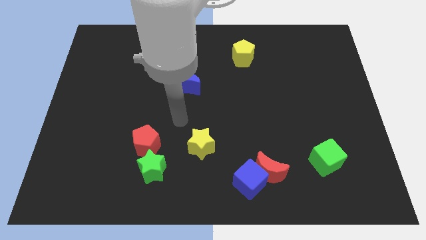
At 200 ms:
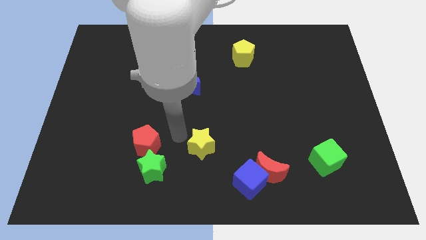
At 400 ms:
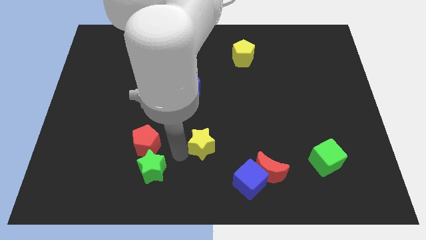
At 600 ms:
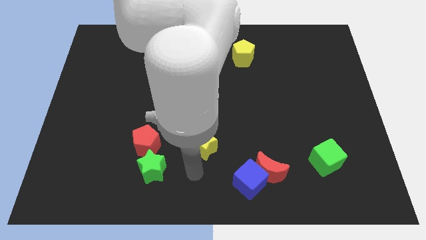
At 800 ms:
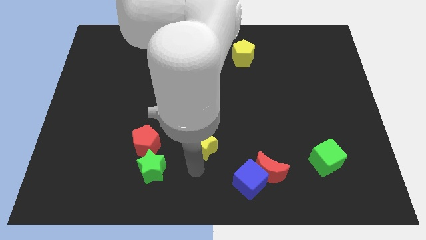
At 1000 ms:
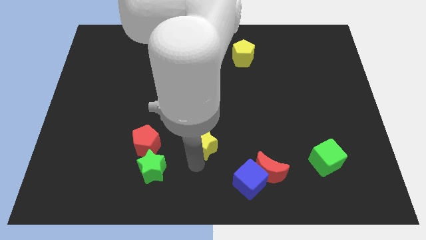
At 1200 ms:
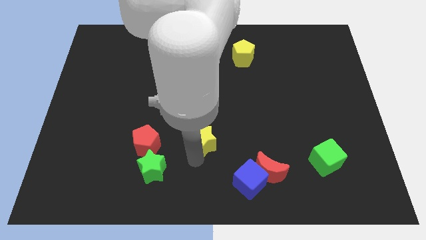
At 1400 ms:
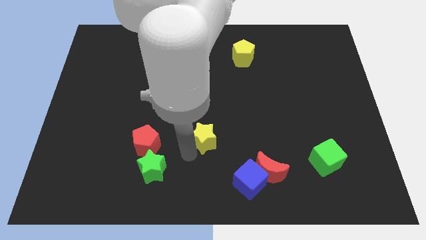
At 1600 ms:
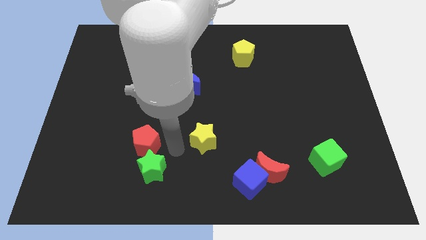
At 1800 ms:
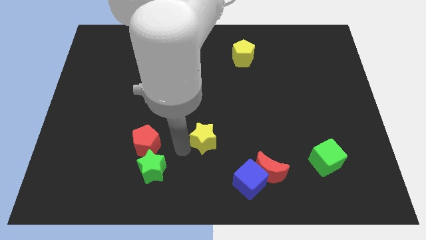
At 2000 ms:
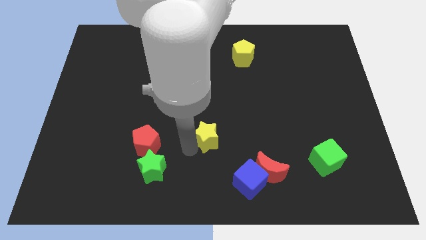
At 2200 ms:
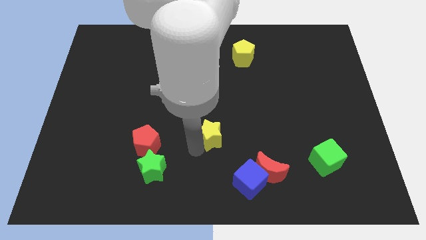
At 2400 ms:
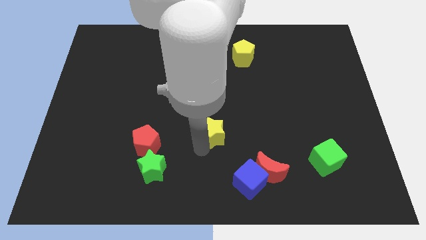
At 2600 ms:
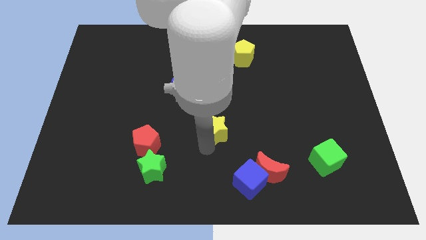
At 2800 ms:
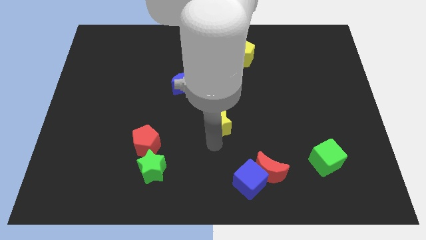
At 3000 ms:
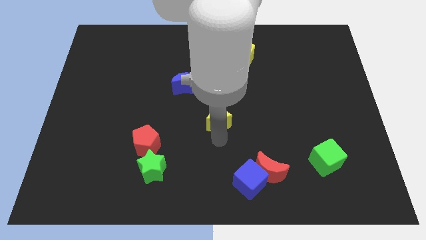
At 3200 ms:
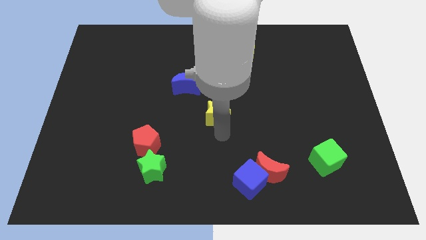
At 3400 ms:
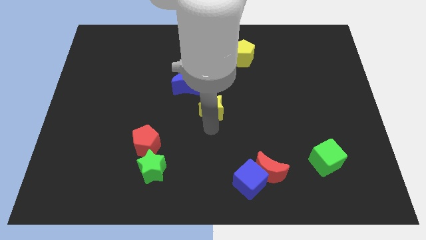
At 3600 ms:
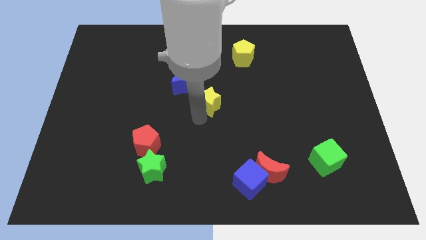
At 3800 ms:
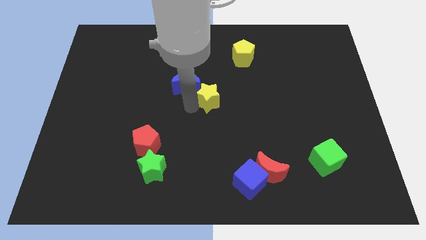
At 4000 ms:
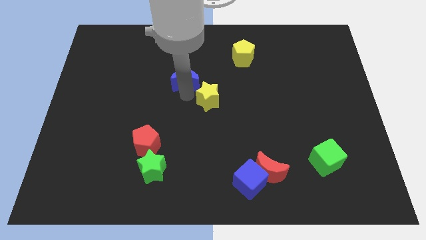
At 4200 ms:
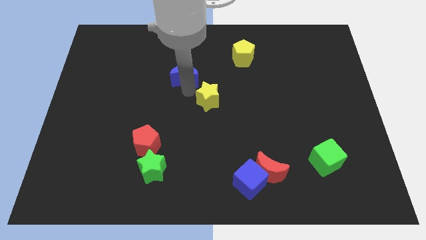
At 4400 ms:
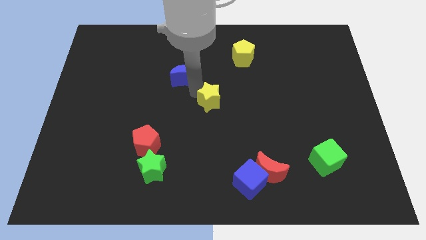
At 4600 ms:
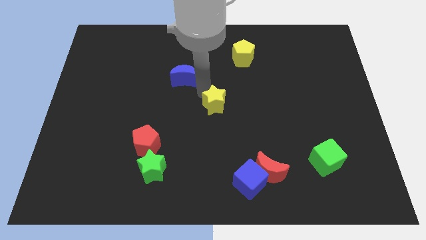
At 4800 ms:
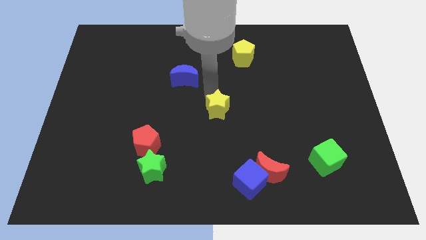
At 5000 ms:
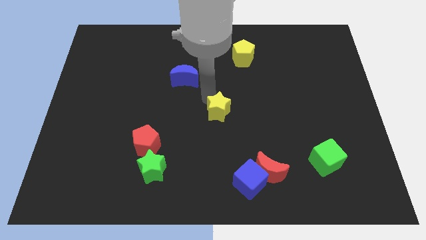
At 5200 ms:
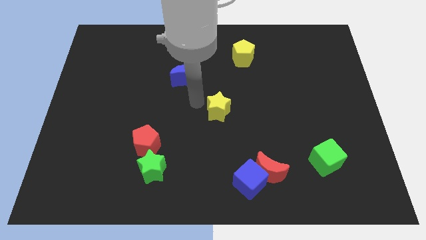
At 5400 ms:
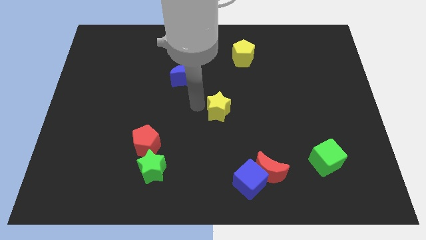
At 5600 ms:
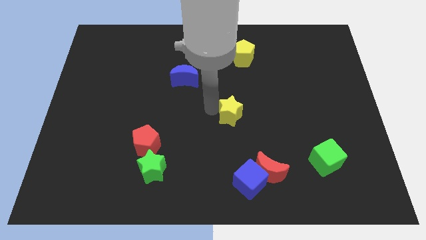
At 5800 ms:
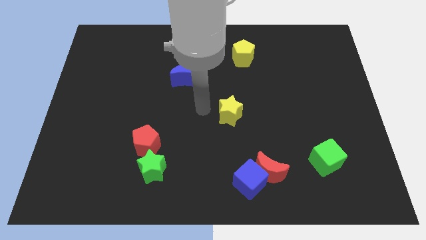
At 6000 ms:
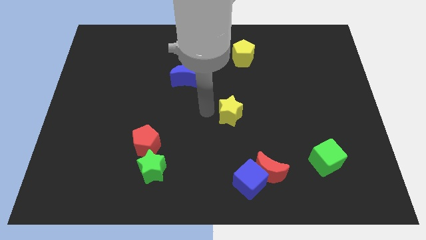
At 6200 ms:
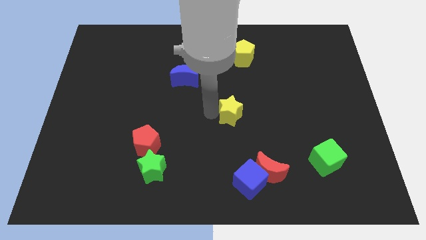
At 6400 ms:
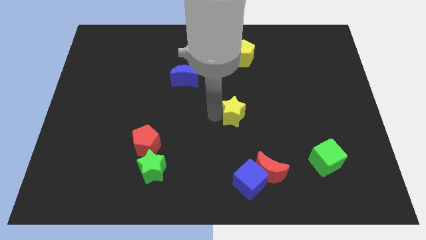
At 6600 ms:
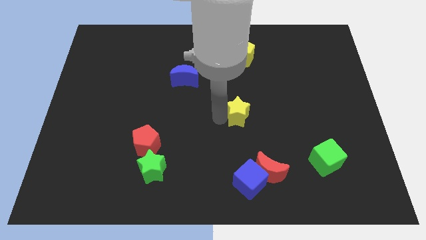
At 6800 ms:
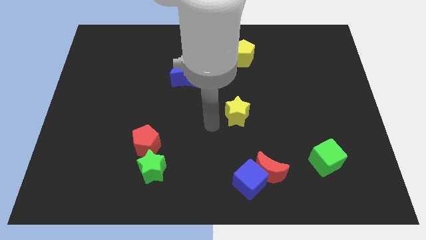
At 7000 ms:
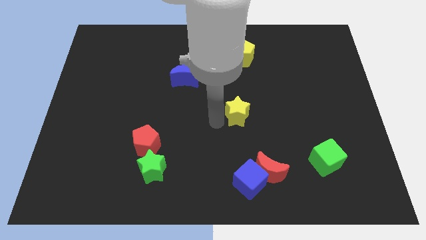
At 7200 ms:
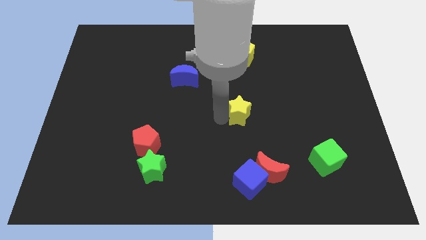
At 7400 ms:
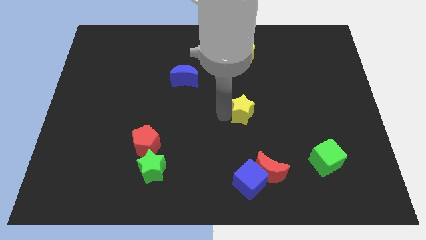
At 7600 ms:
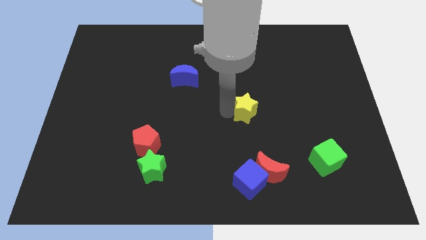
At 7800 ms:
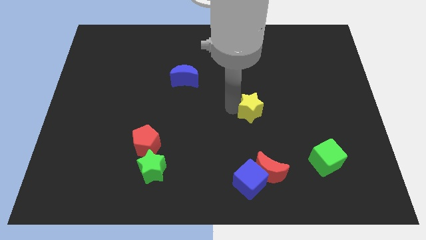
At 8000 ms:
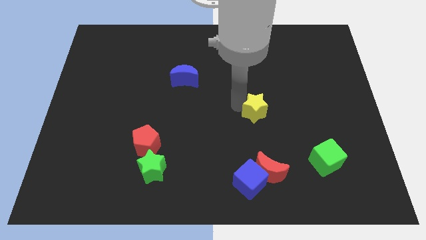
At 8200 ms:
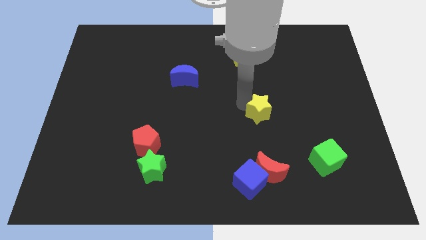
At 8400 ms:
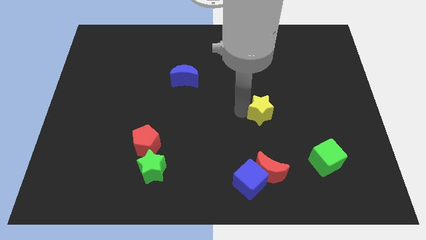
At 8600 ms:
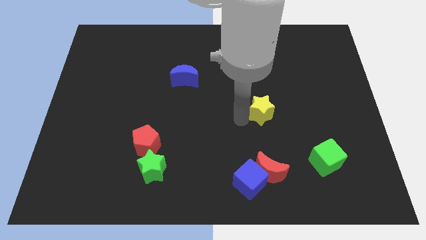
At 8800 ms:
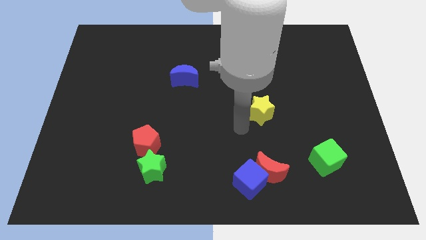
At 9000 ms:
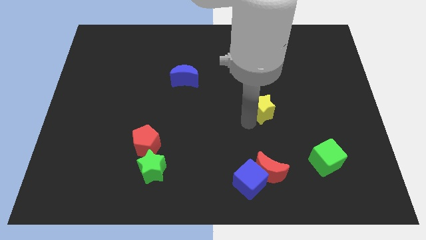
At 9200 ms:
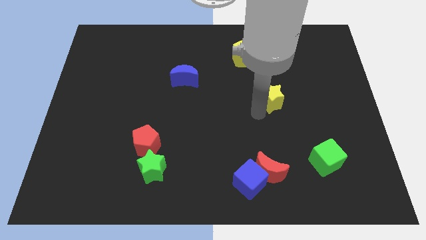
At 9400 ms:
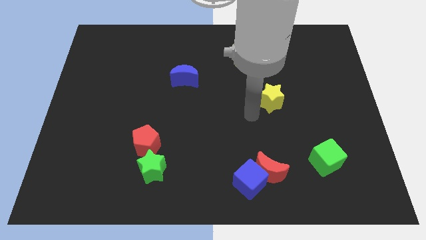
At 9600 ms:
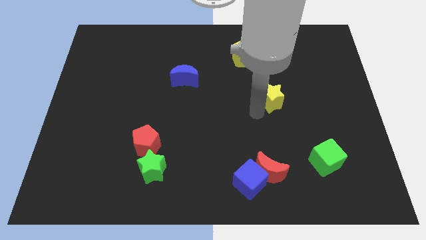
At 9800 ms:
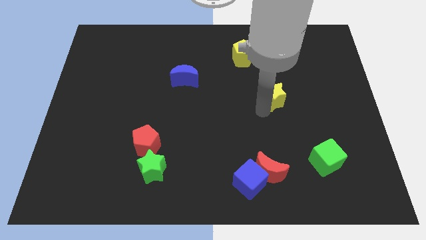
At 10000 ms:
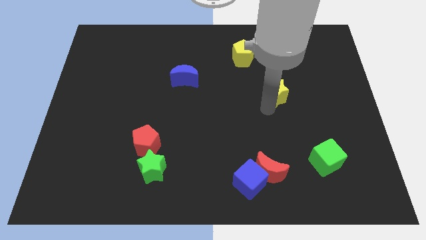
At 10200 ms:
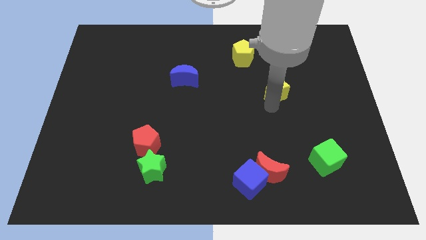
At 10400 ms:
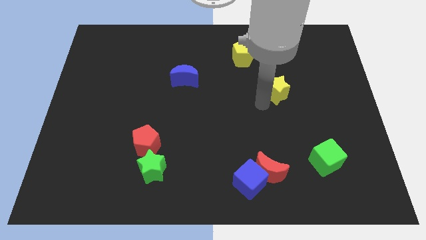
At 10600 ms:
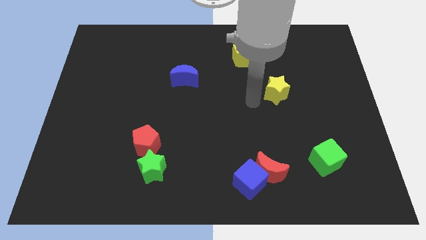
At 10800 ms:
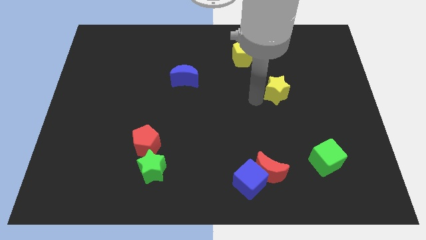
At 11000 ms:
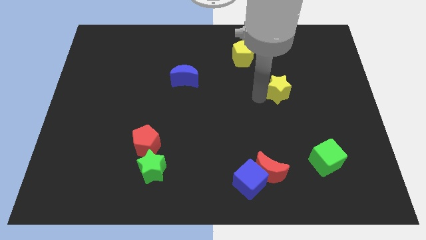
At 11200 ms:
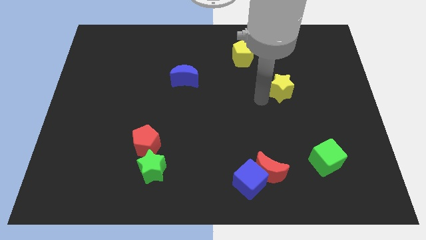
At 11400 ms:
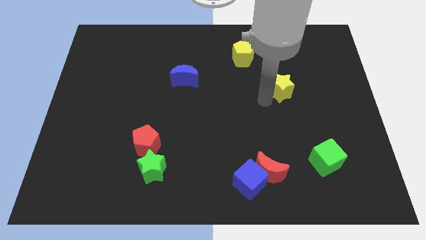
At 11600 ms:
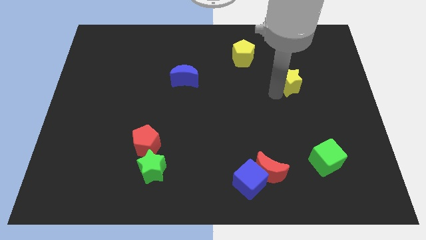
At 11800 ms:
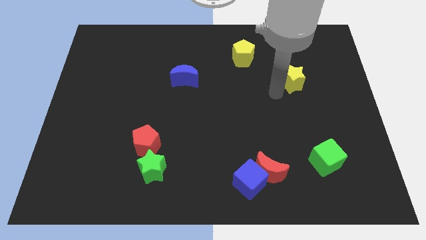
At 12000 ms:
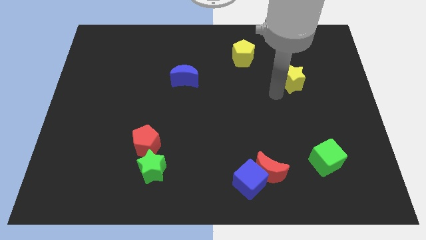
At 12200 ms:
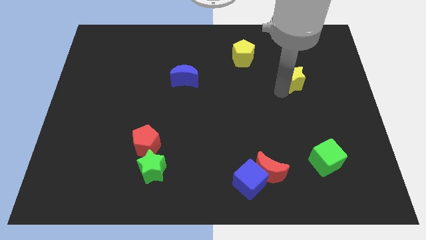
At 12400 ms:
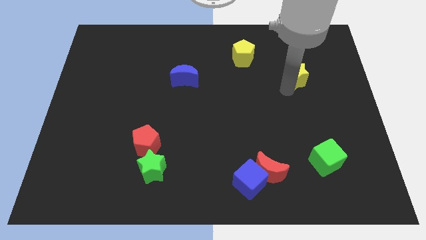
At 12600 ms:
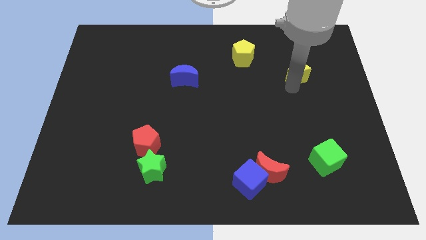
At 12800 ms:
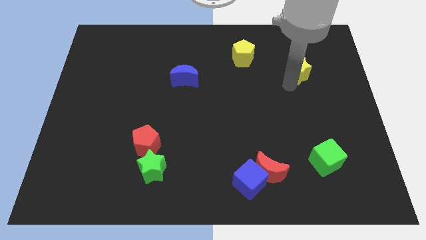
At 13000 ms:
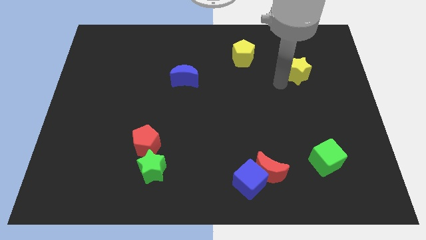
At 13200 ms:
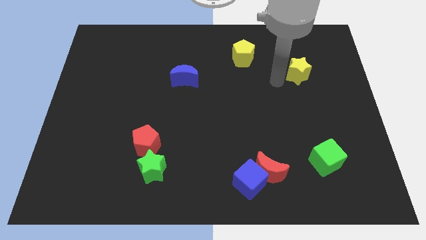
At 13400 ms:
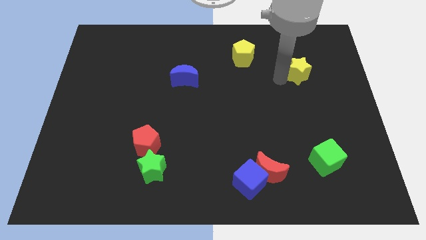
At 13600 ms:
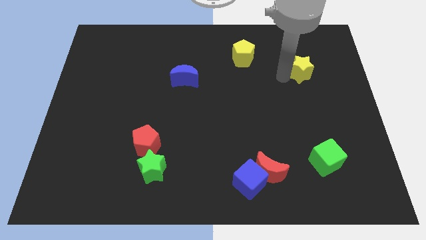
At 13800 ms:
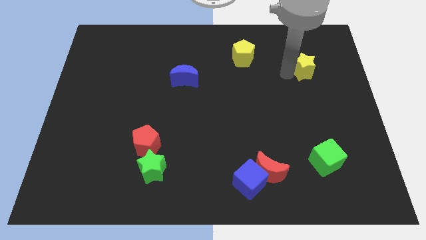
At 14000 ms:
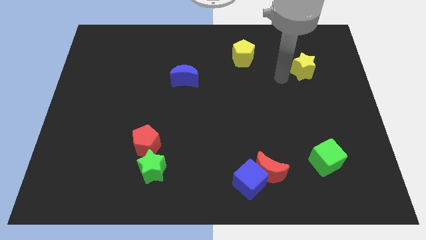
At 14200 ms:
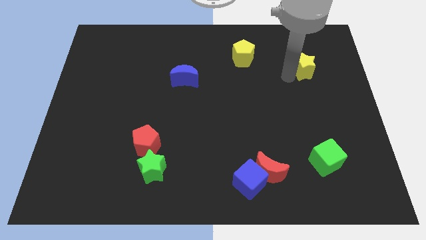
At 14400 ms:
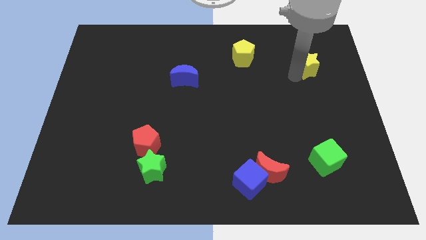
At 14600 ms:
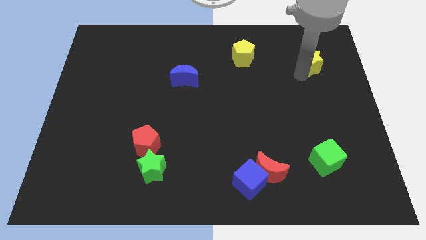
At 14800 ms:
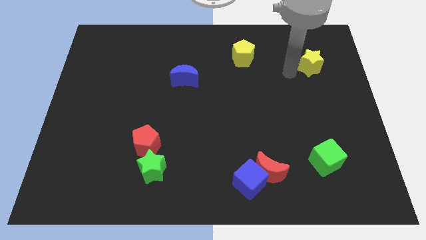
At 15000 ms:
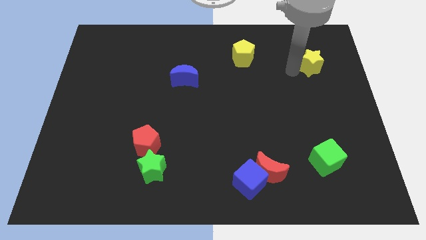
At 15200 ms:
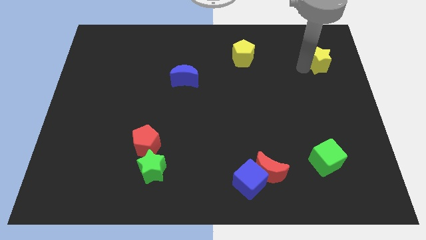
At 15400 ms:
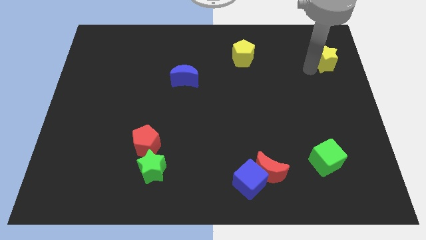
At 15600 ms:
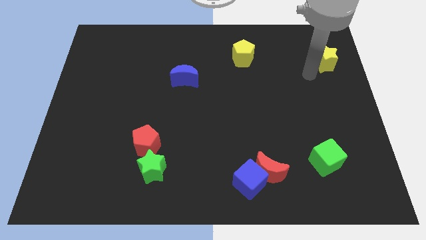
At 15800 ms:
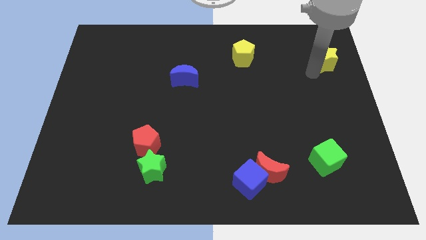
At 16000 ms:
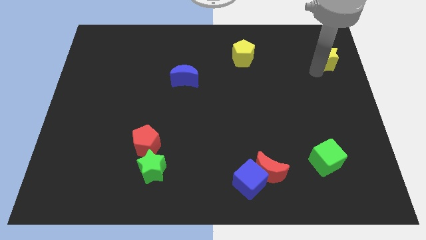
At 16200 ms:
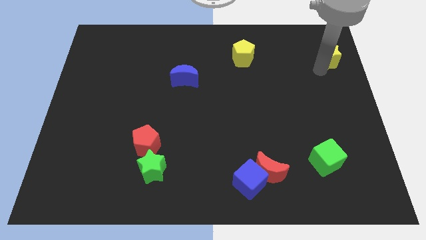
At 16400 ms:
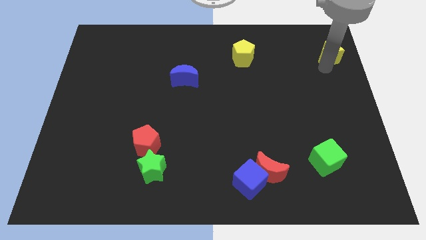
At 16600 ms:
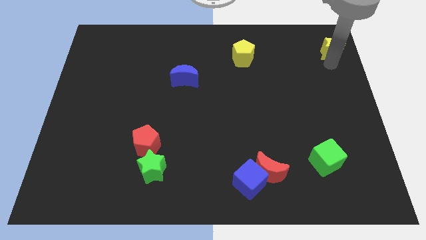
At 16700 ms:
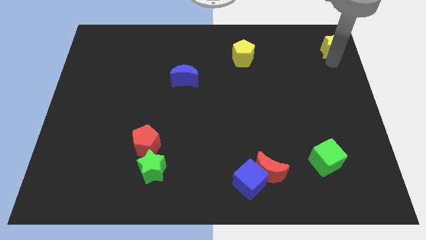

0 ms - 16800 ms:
push the yellow star to the top right of the board
